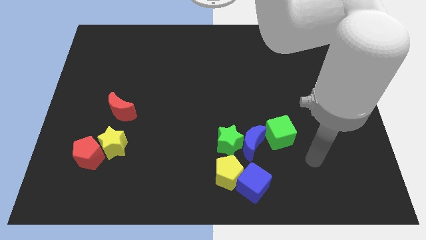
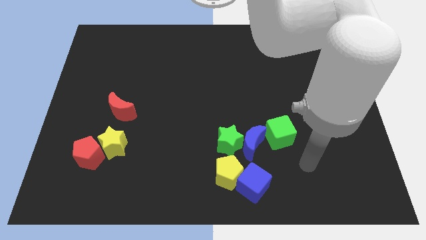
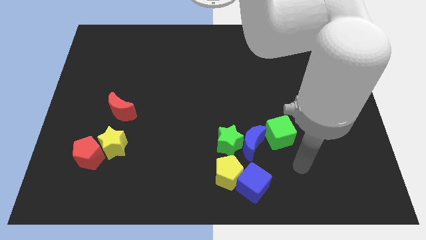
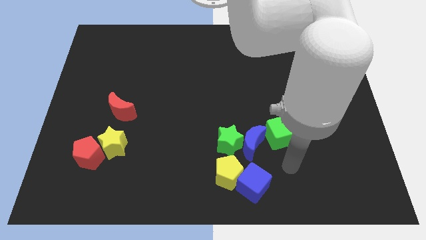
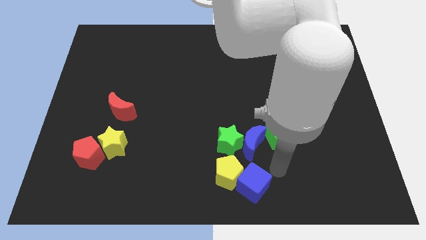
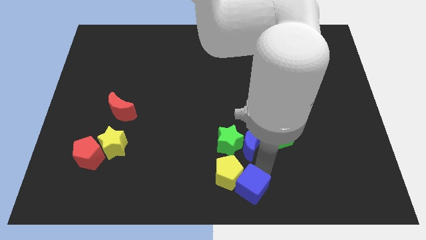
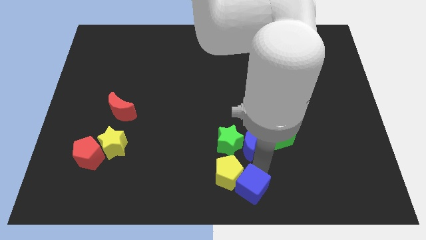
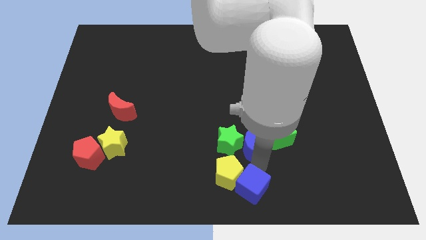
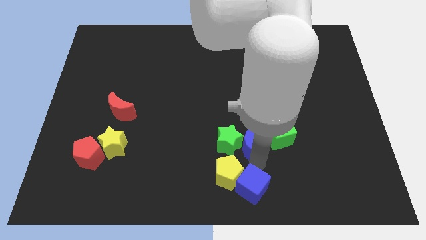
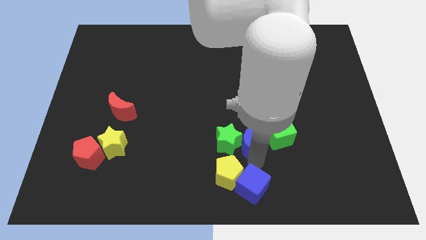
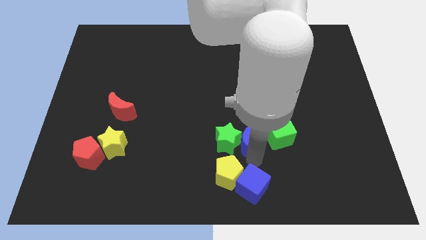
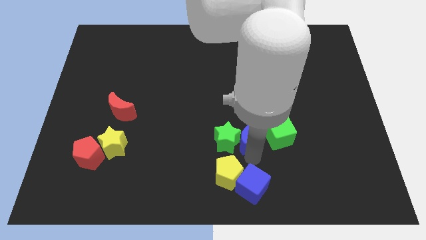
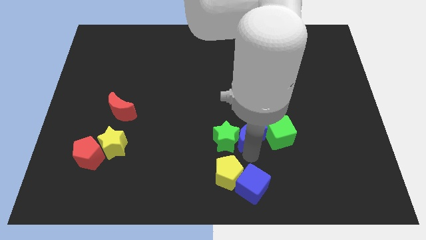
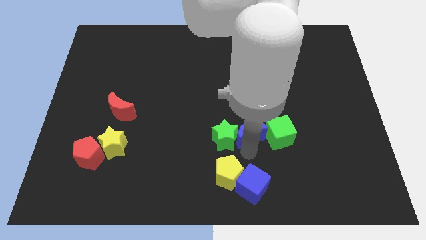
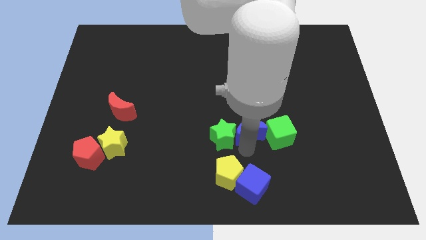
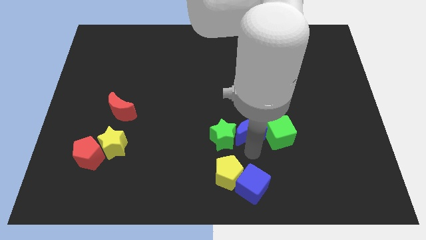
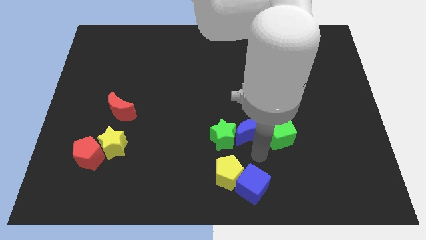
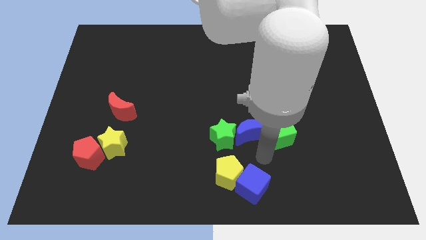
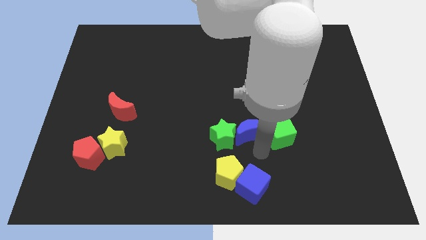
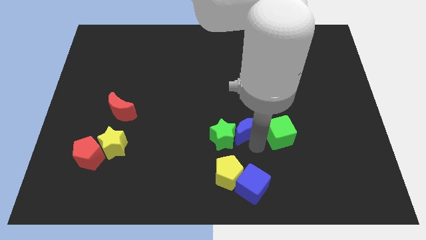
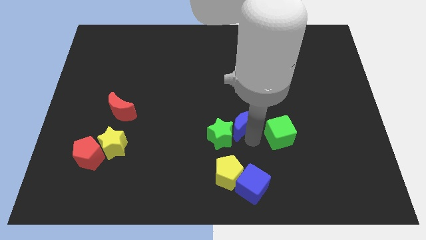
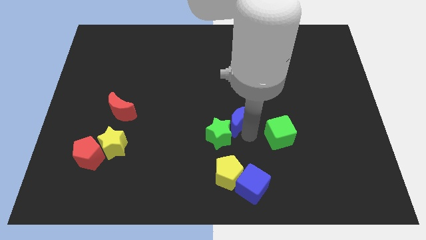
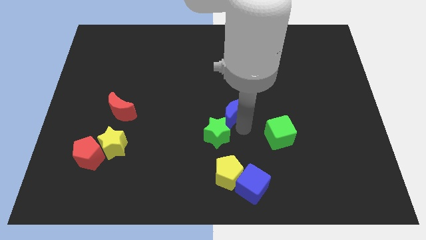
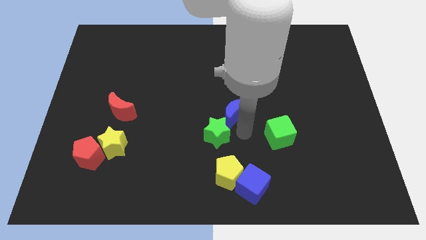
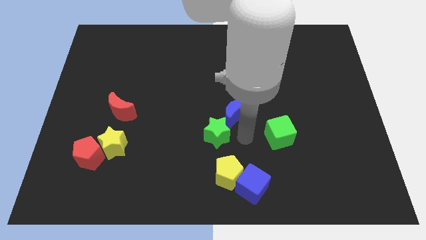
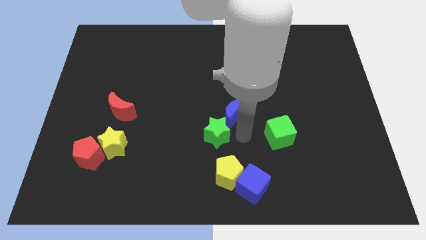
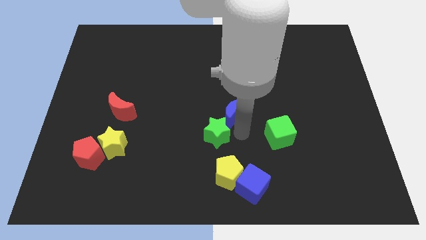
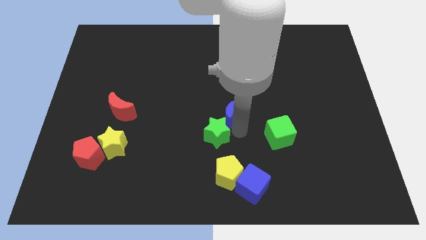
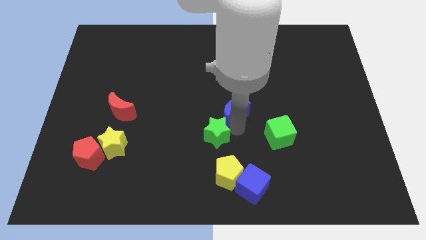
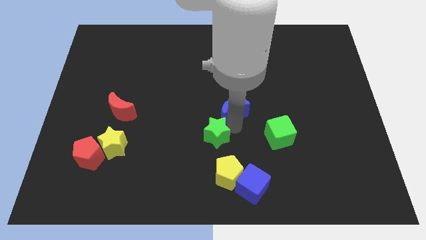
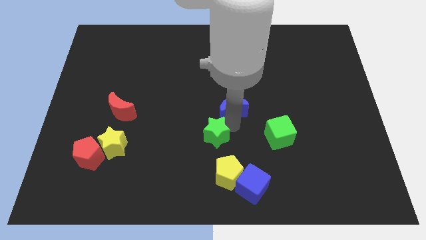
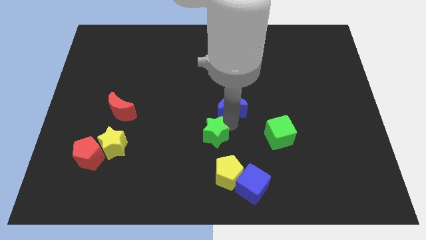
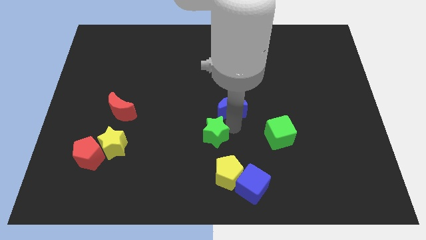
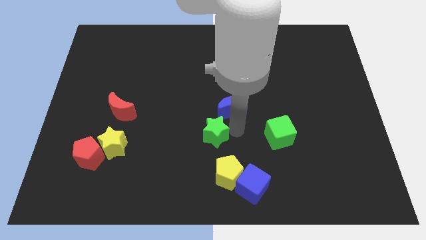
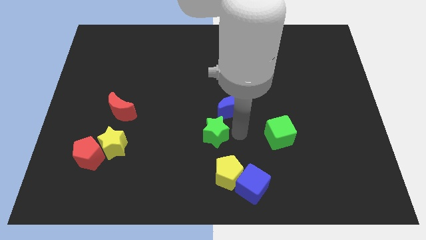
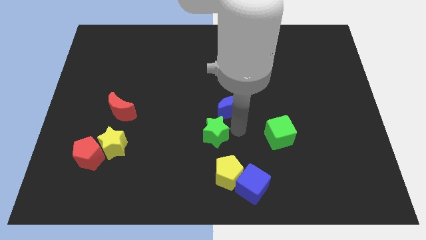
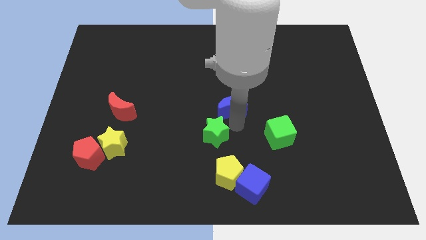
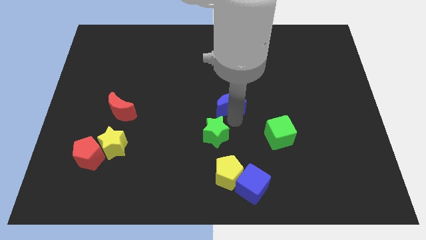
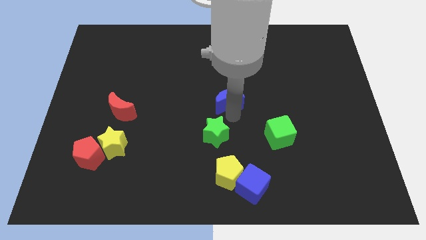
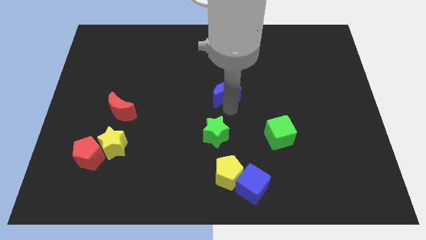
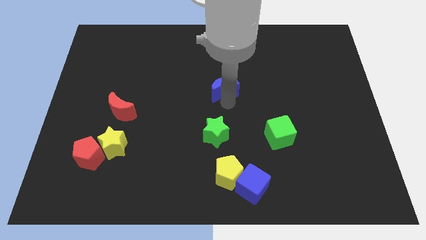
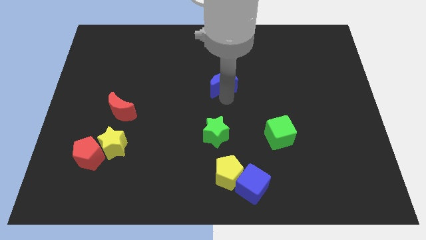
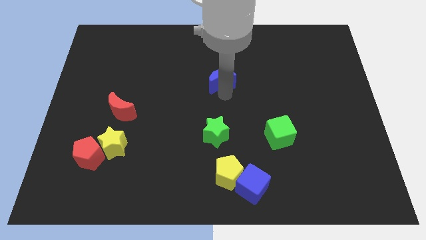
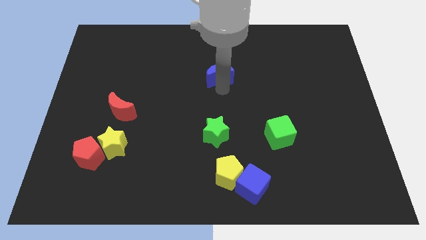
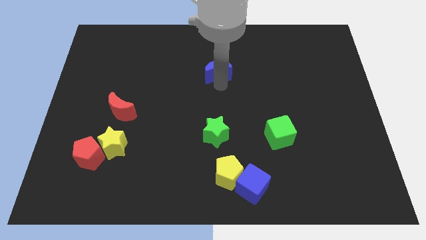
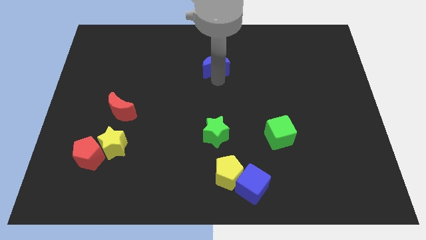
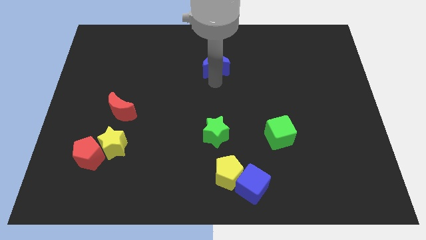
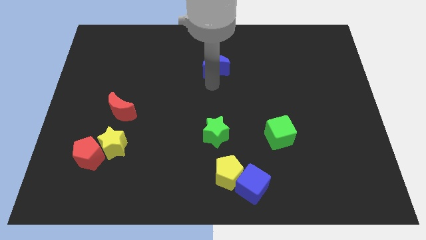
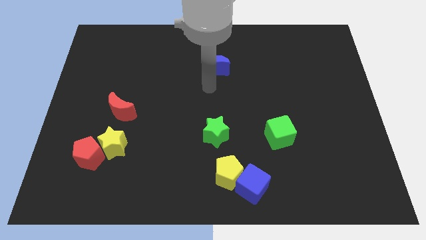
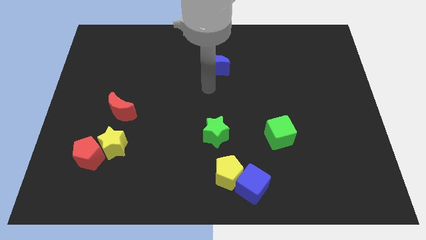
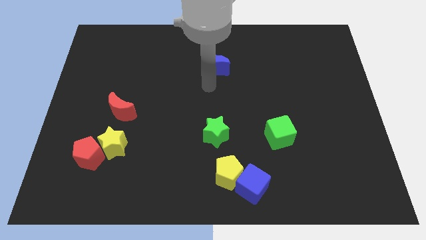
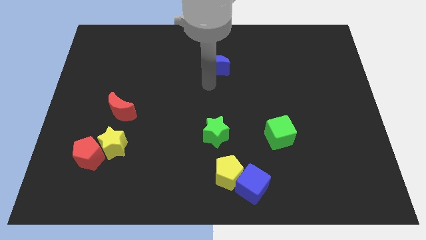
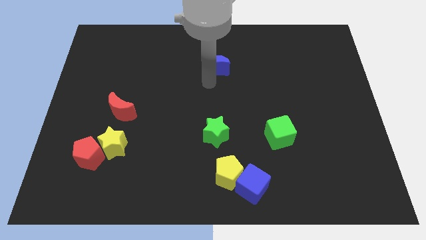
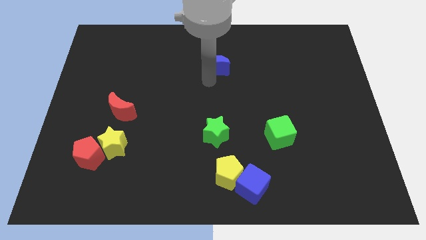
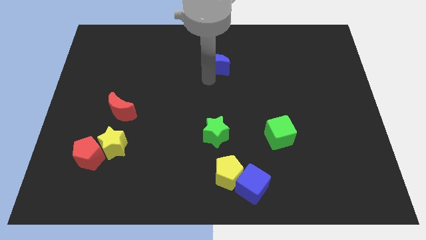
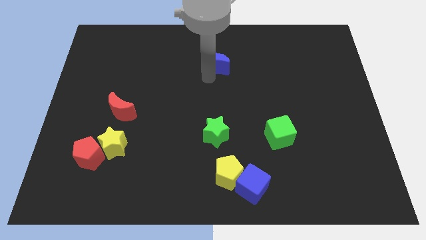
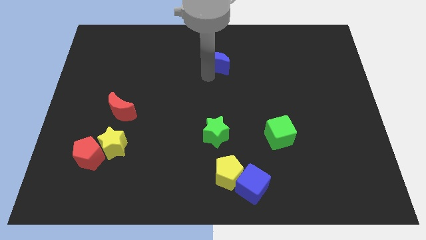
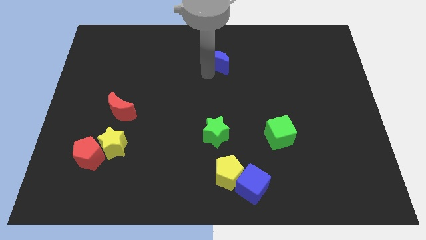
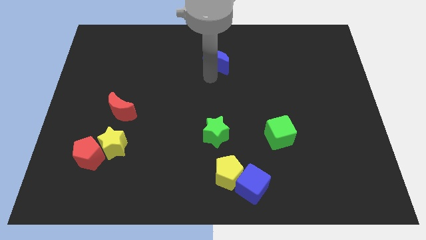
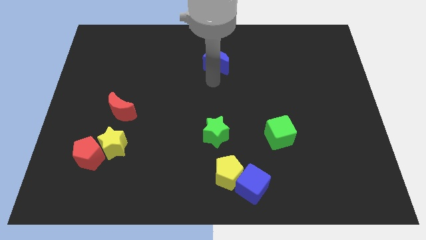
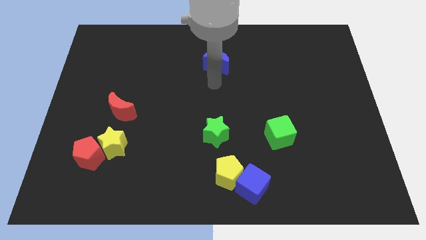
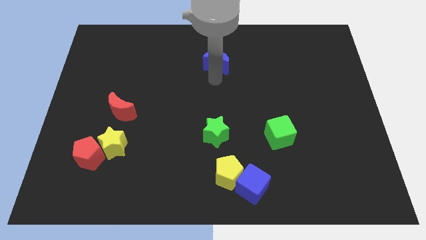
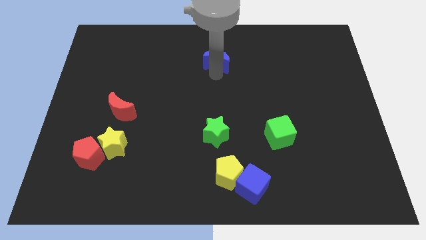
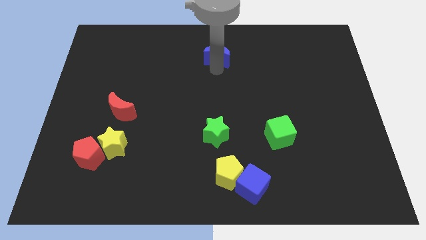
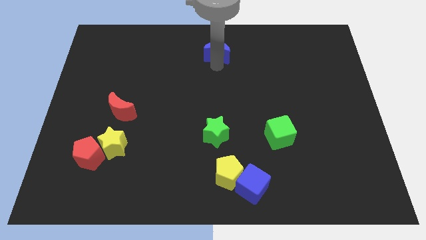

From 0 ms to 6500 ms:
push the blue moon to the towards your base
